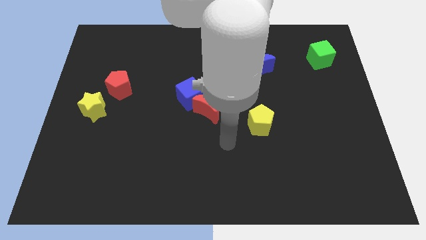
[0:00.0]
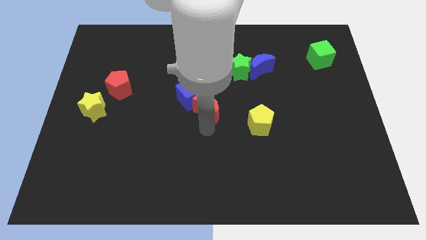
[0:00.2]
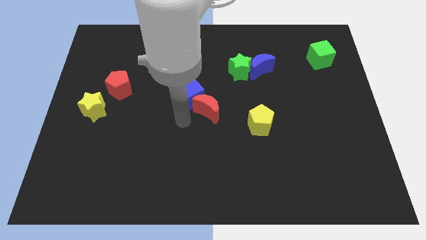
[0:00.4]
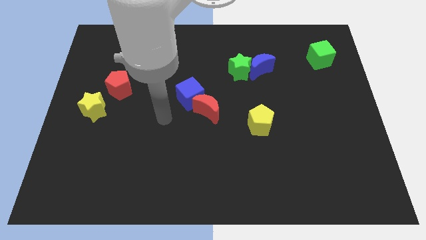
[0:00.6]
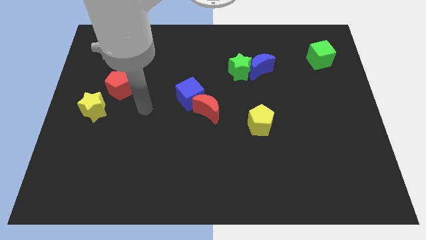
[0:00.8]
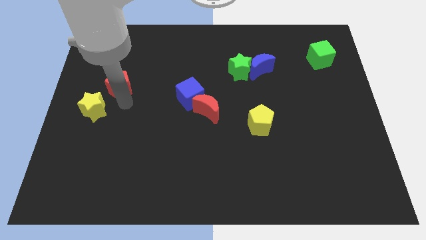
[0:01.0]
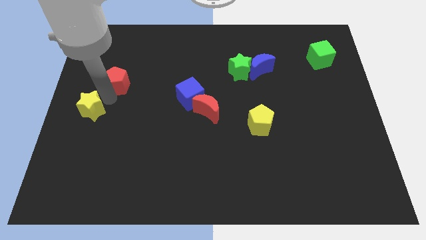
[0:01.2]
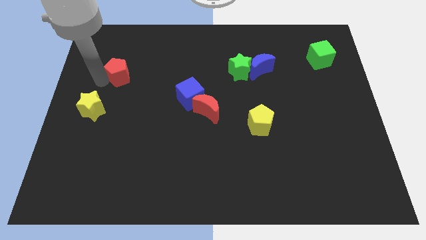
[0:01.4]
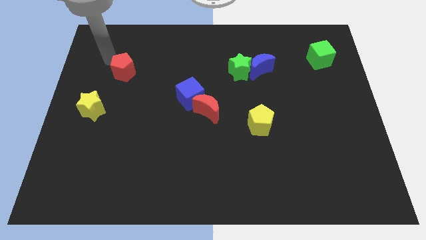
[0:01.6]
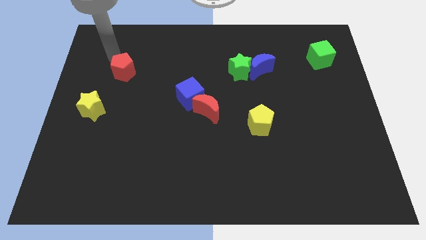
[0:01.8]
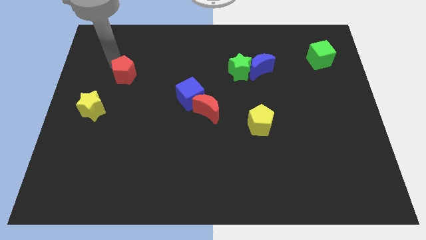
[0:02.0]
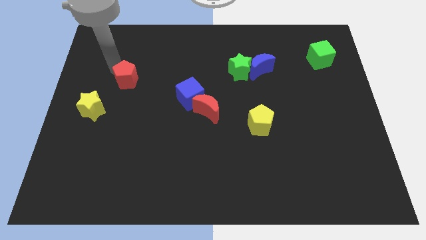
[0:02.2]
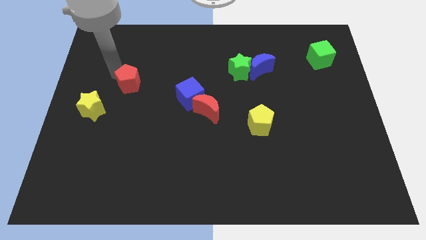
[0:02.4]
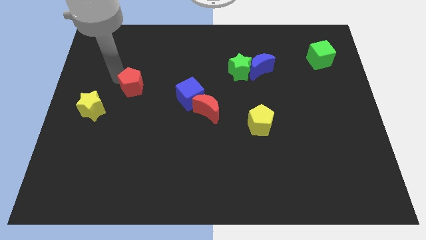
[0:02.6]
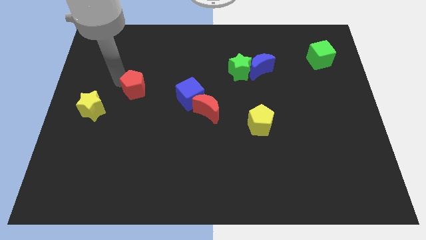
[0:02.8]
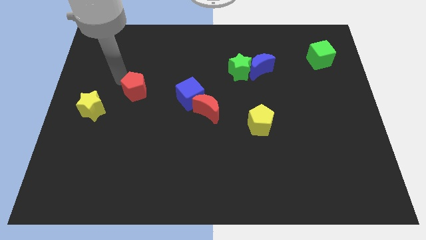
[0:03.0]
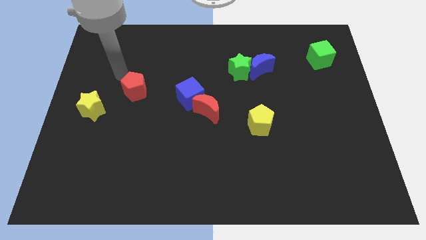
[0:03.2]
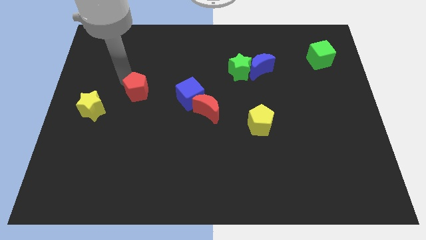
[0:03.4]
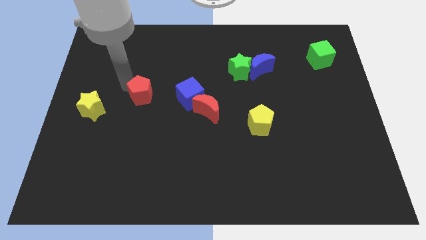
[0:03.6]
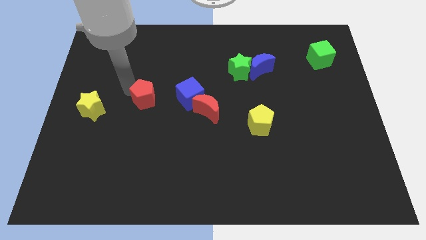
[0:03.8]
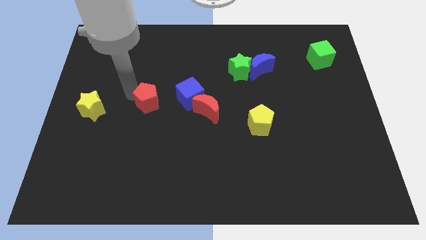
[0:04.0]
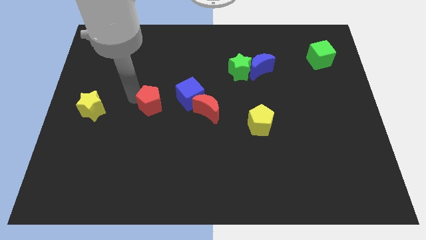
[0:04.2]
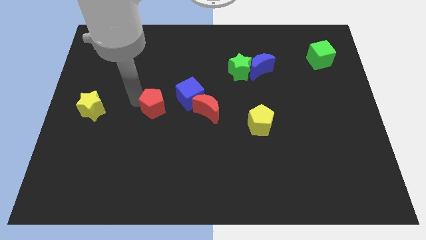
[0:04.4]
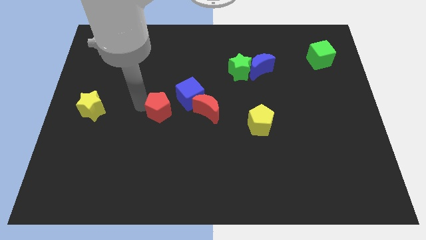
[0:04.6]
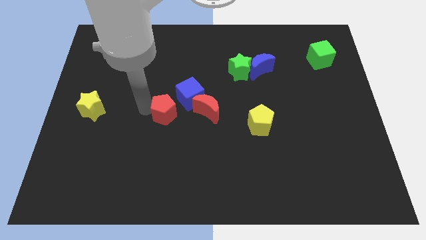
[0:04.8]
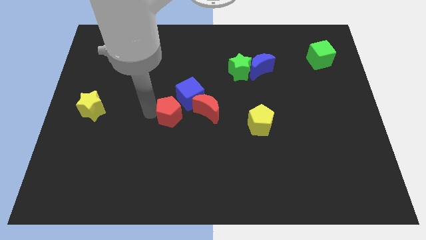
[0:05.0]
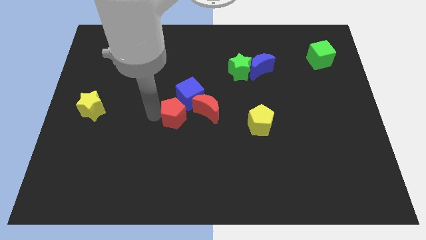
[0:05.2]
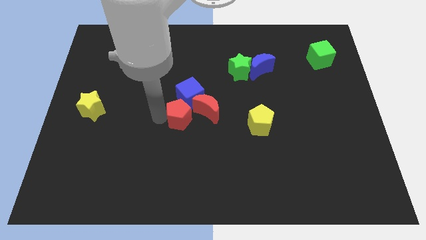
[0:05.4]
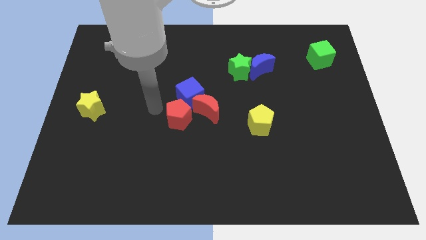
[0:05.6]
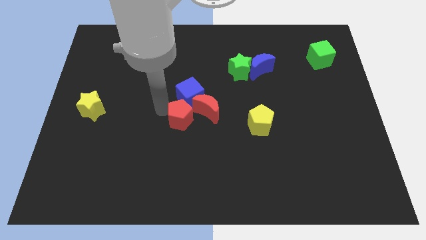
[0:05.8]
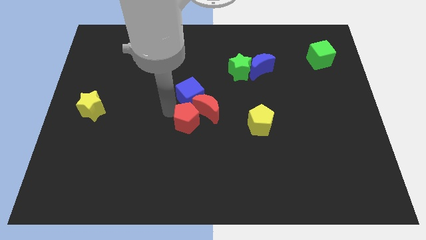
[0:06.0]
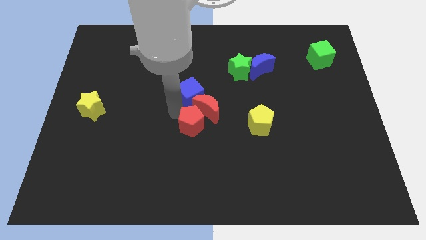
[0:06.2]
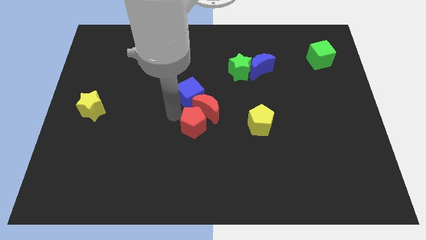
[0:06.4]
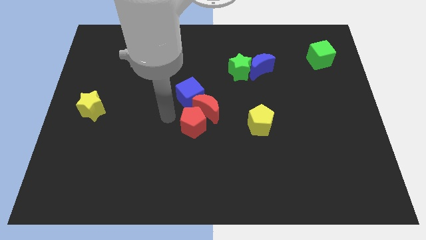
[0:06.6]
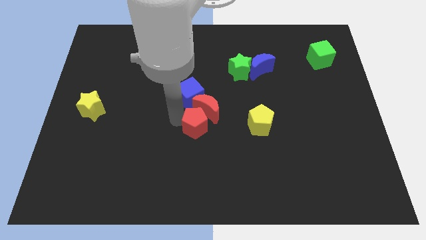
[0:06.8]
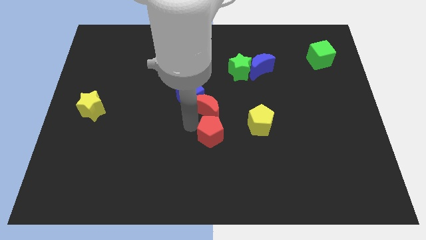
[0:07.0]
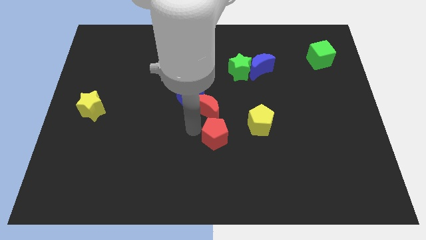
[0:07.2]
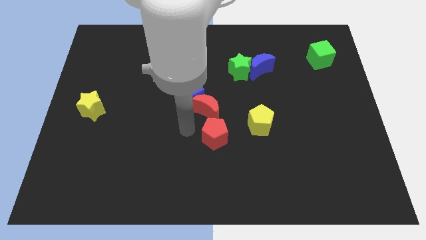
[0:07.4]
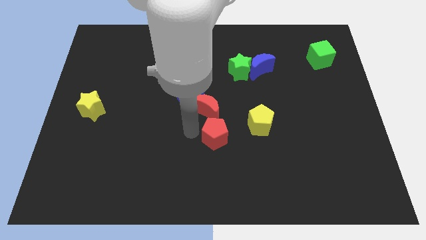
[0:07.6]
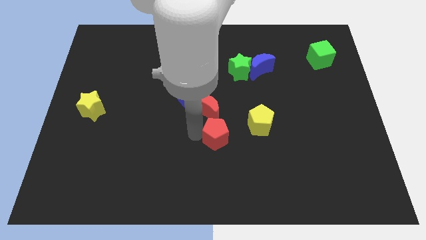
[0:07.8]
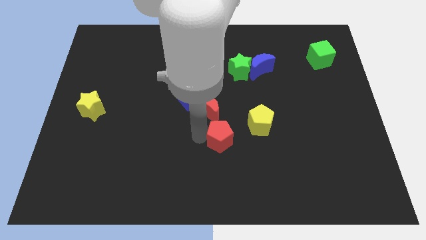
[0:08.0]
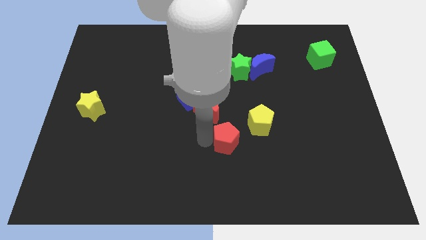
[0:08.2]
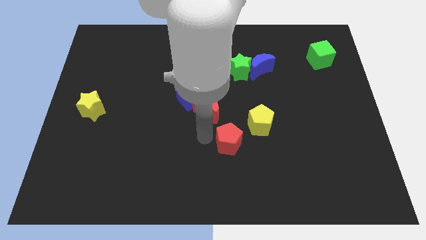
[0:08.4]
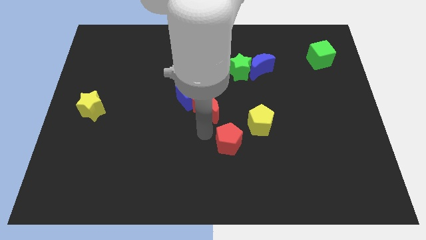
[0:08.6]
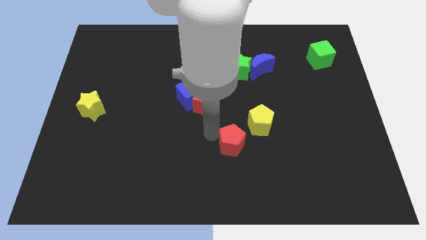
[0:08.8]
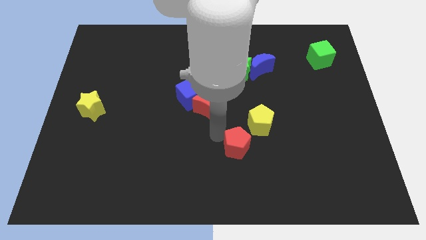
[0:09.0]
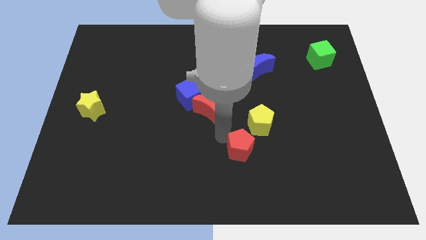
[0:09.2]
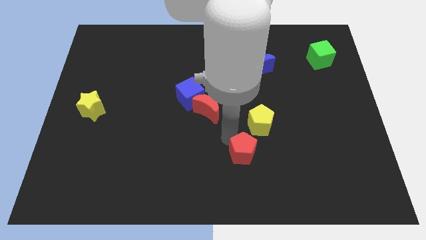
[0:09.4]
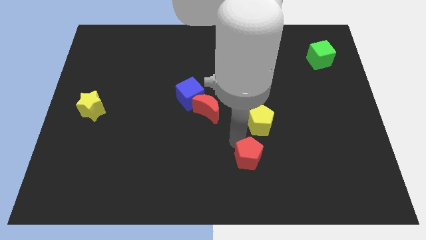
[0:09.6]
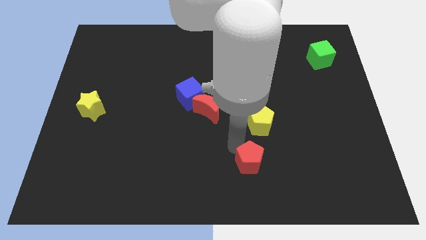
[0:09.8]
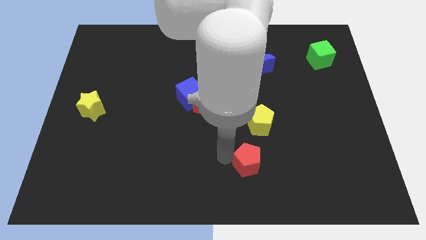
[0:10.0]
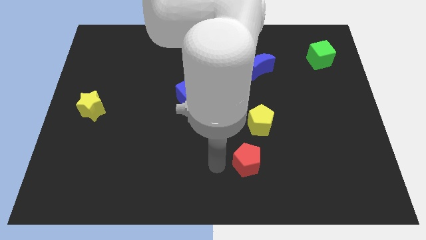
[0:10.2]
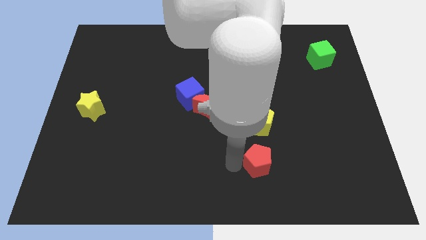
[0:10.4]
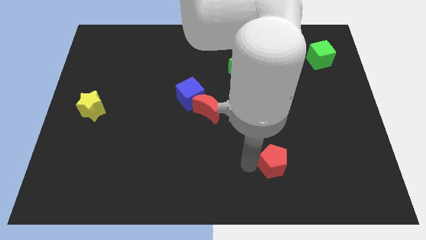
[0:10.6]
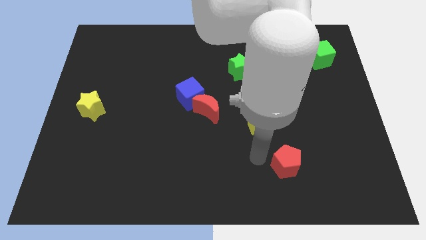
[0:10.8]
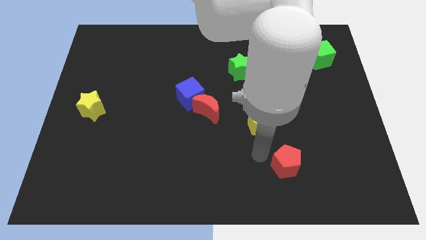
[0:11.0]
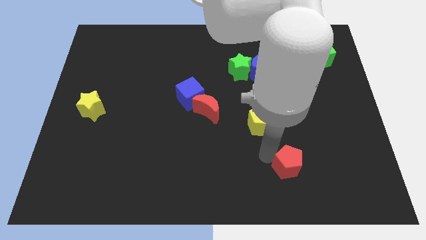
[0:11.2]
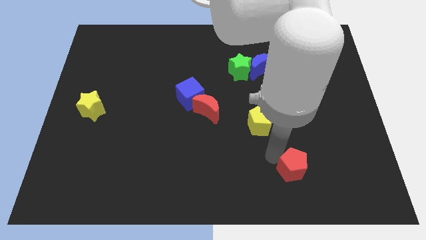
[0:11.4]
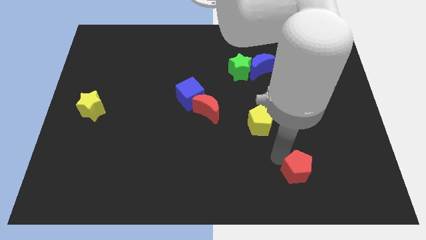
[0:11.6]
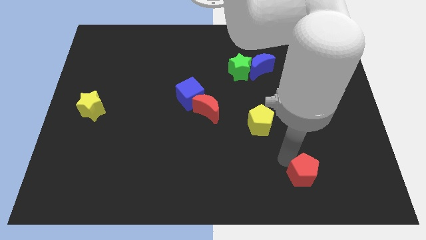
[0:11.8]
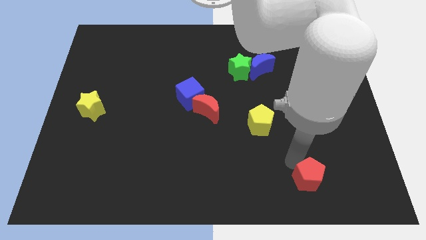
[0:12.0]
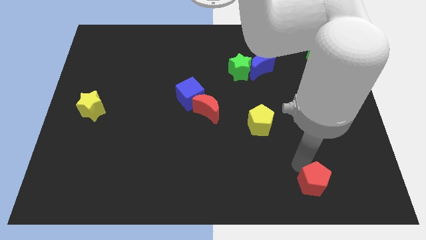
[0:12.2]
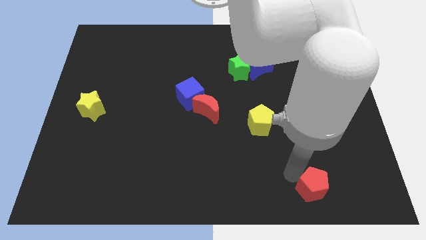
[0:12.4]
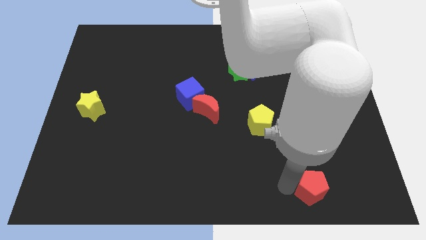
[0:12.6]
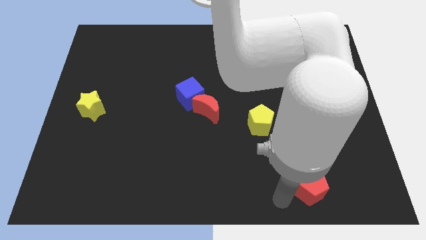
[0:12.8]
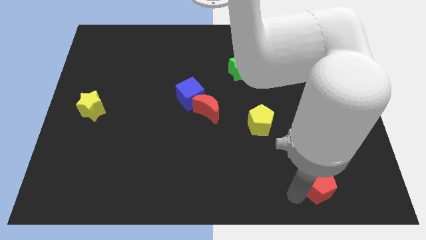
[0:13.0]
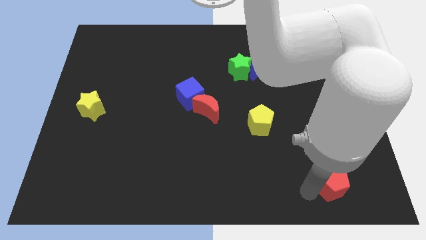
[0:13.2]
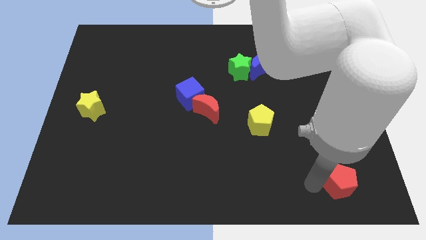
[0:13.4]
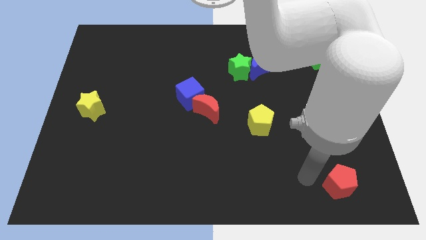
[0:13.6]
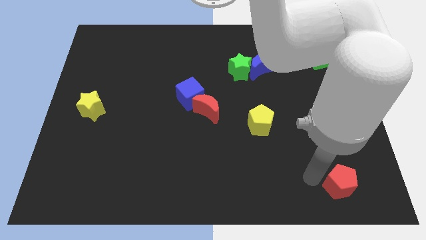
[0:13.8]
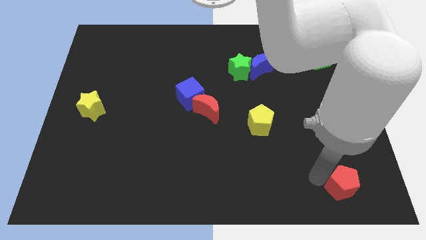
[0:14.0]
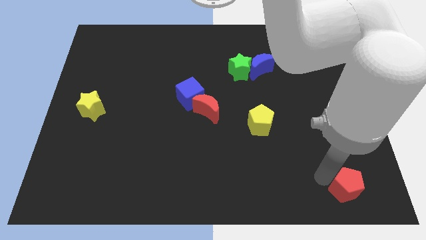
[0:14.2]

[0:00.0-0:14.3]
push the red pentagon to the lower right corner
